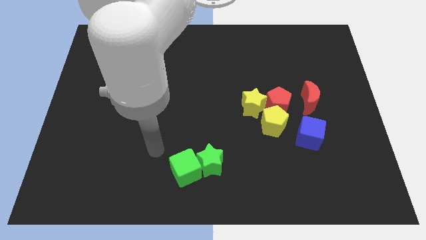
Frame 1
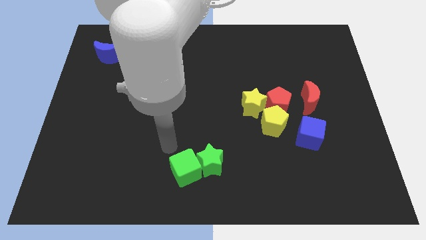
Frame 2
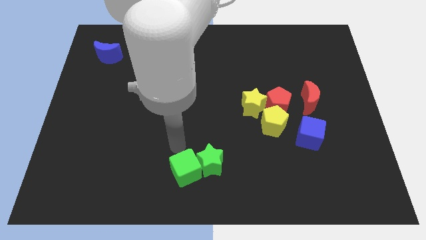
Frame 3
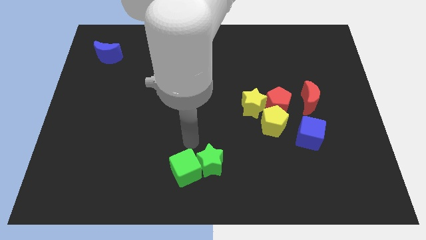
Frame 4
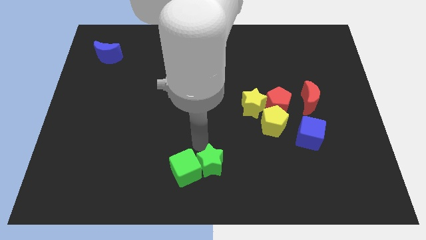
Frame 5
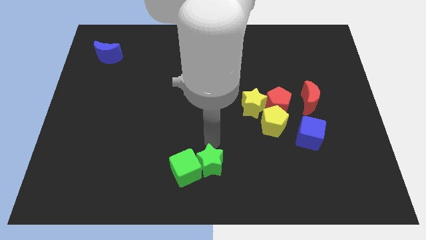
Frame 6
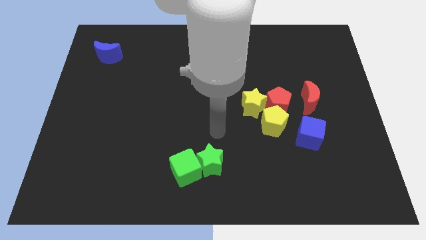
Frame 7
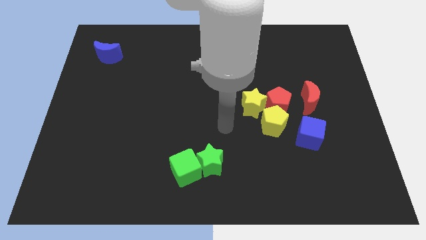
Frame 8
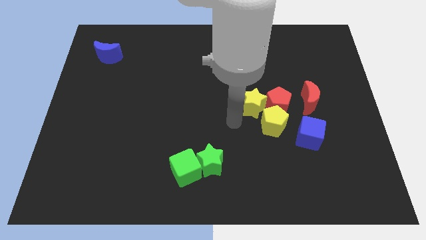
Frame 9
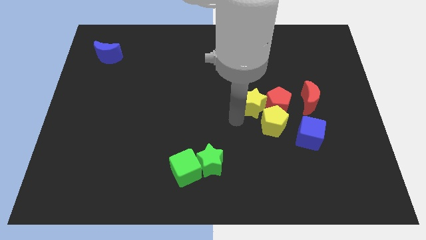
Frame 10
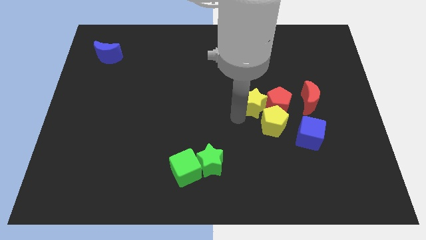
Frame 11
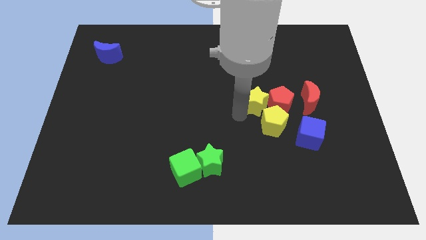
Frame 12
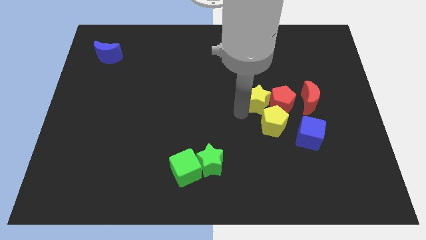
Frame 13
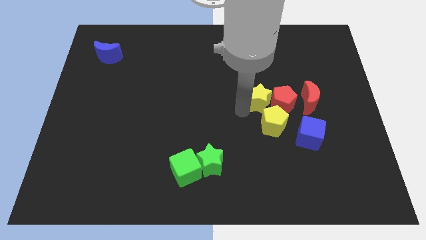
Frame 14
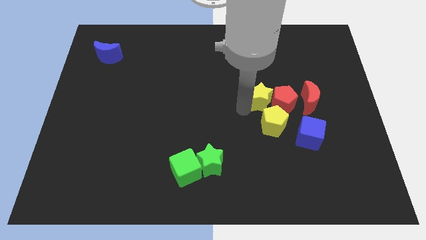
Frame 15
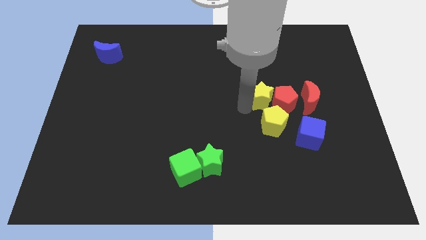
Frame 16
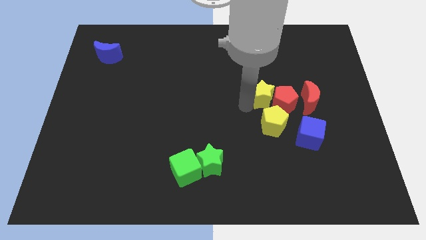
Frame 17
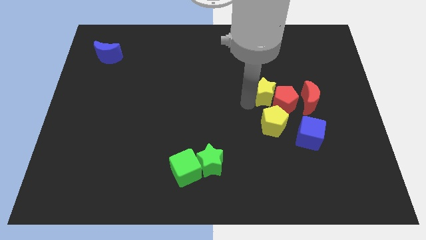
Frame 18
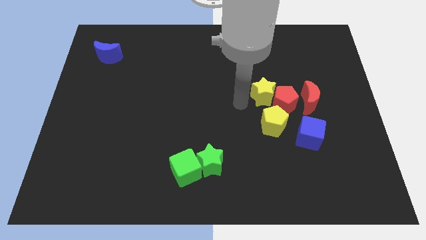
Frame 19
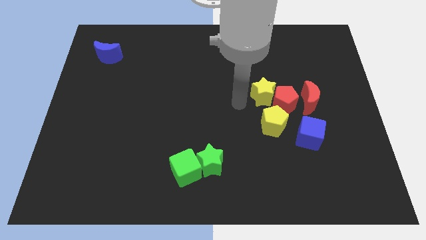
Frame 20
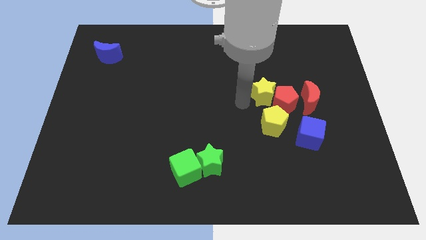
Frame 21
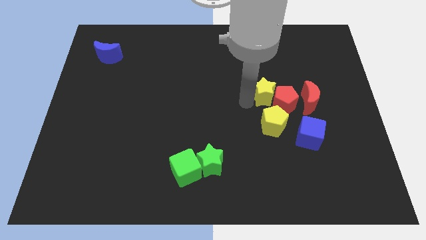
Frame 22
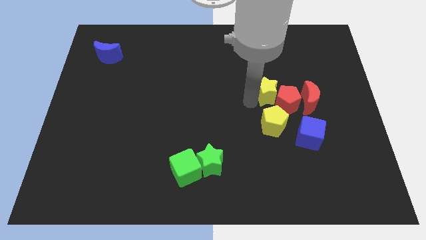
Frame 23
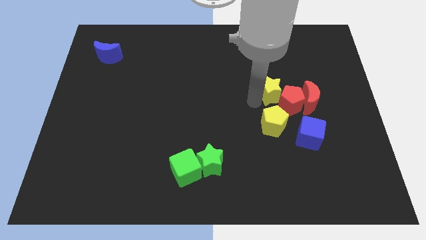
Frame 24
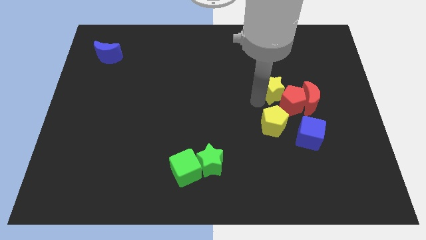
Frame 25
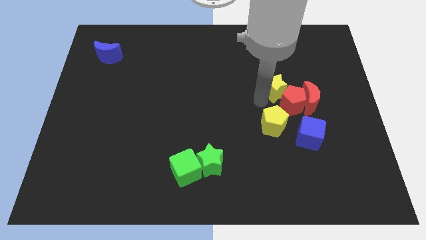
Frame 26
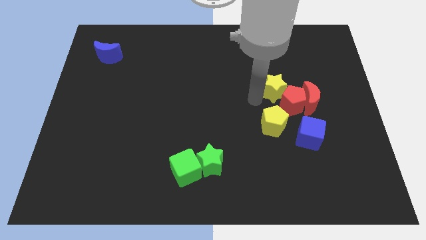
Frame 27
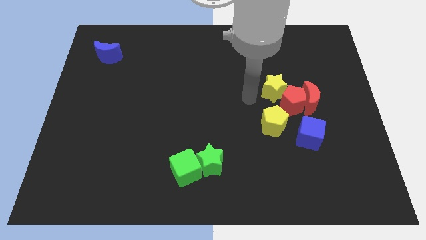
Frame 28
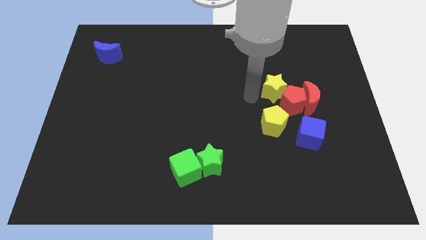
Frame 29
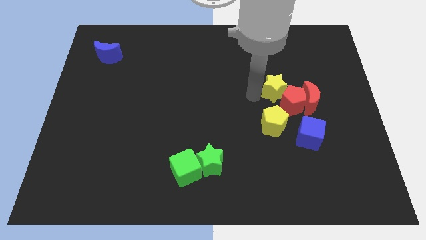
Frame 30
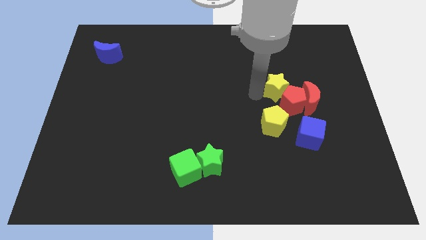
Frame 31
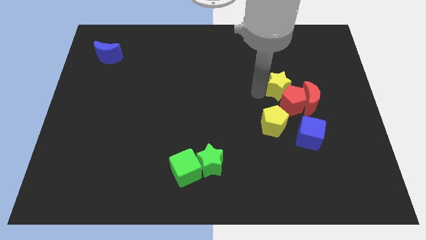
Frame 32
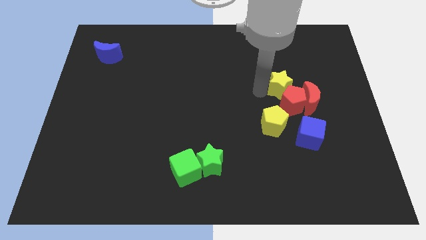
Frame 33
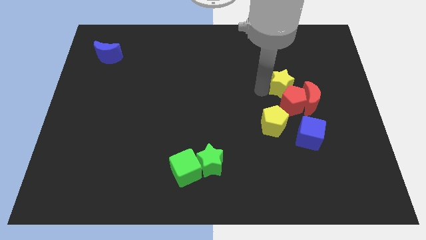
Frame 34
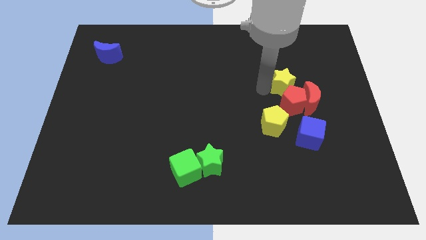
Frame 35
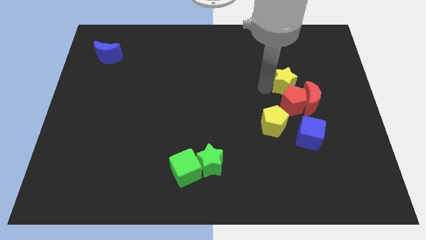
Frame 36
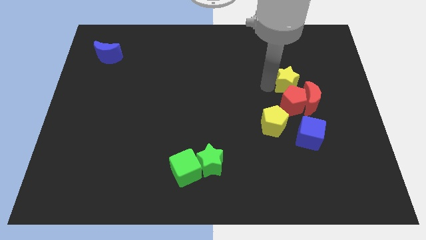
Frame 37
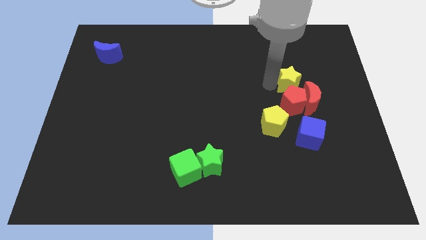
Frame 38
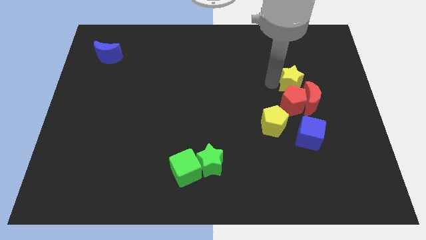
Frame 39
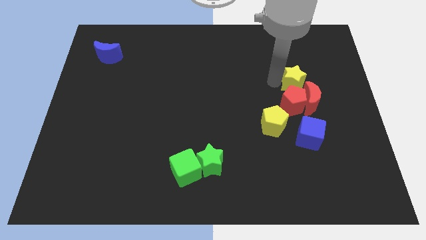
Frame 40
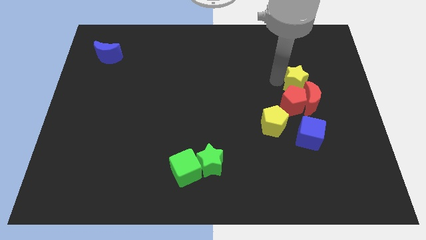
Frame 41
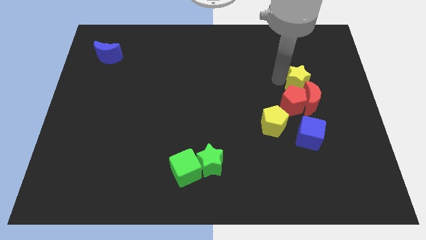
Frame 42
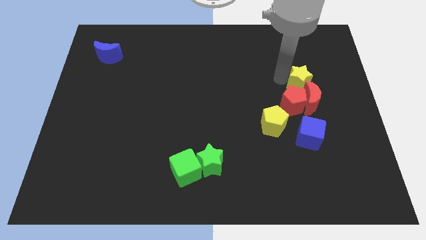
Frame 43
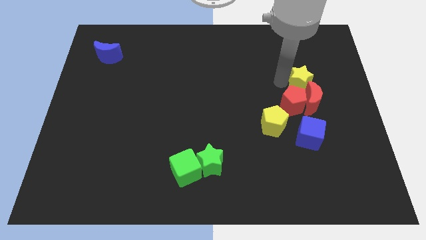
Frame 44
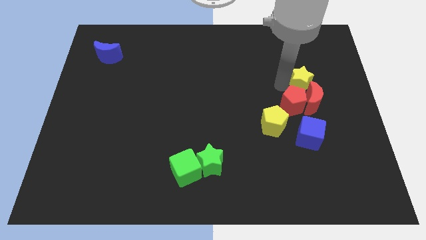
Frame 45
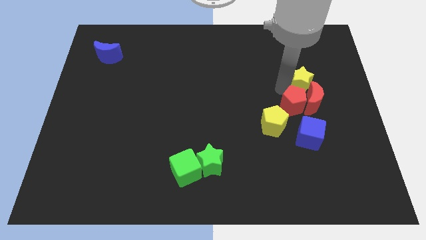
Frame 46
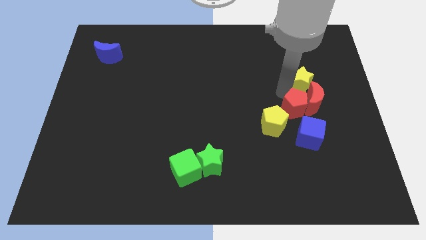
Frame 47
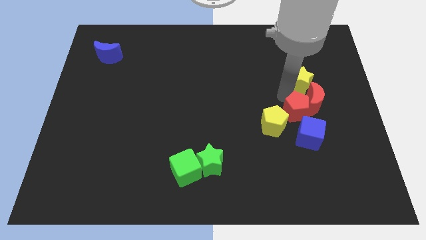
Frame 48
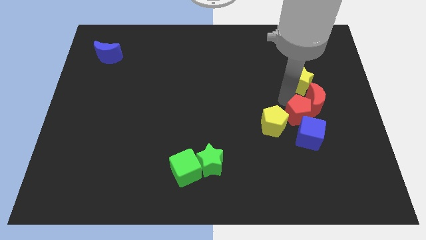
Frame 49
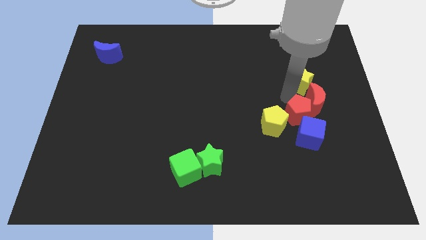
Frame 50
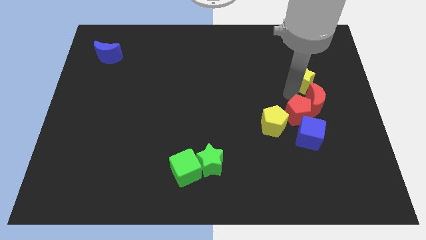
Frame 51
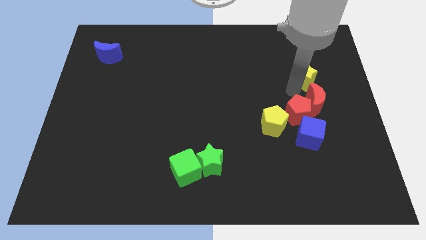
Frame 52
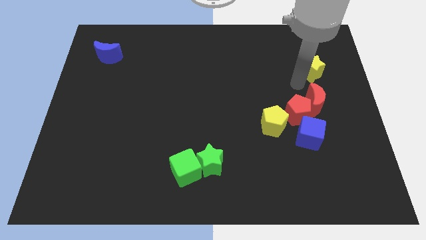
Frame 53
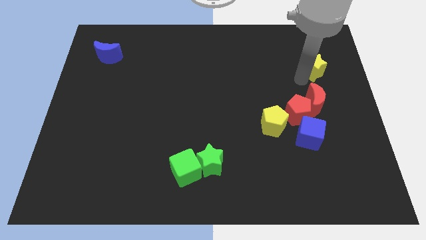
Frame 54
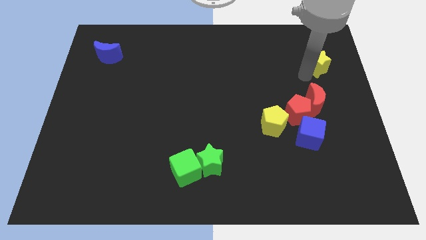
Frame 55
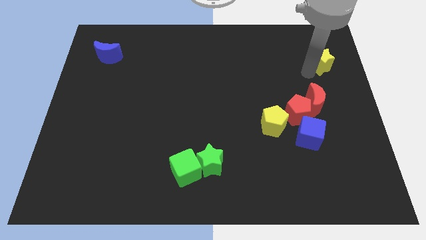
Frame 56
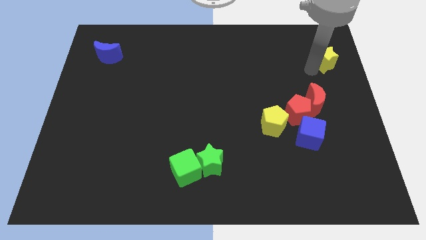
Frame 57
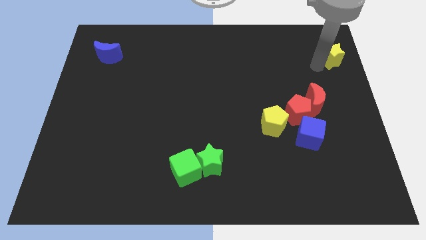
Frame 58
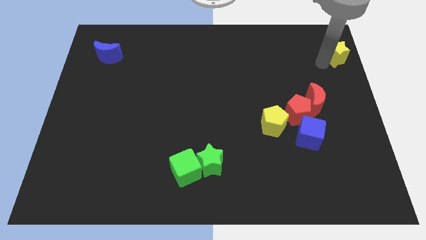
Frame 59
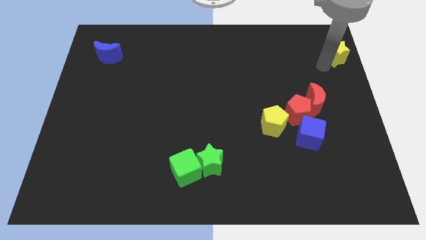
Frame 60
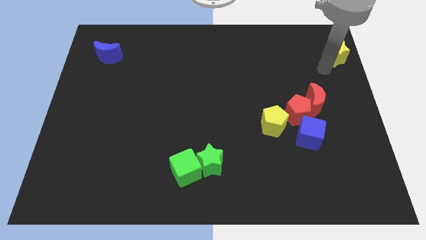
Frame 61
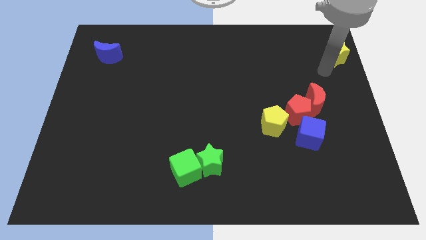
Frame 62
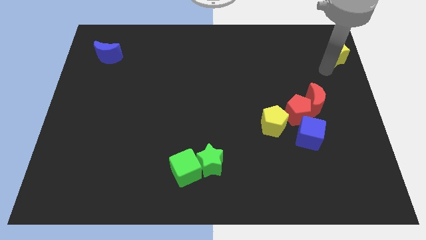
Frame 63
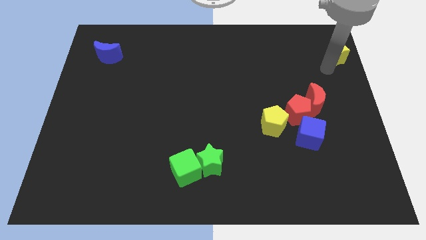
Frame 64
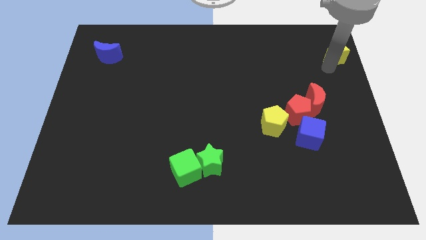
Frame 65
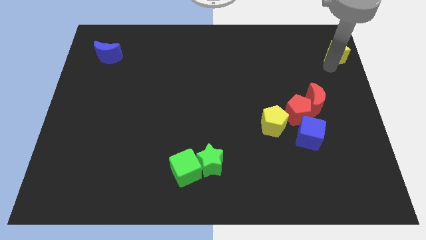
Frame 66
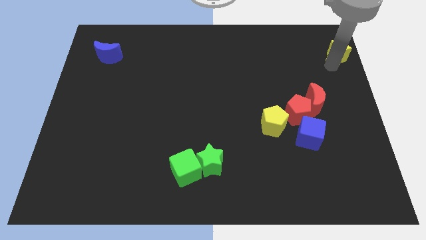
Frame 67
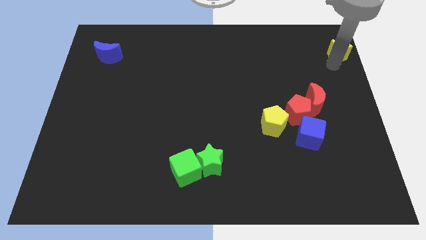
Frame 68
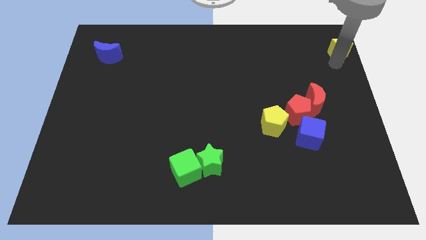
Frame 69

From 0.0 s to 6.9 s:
push the yellow star to the upper right corner
